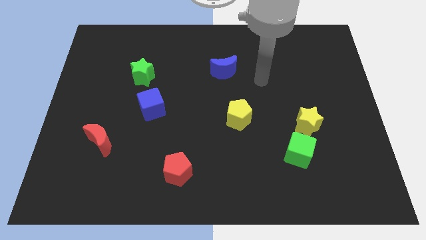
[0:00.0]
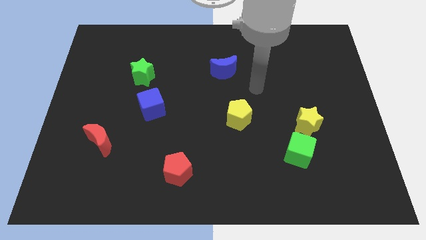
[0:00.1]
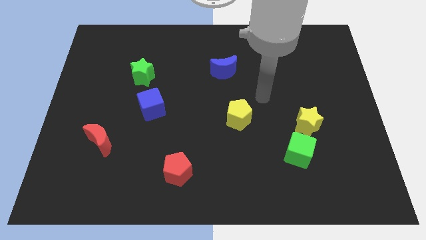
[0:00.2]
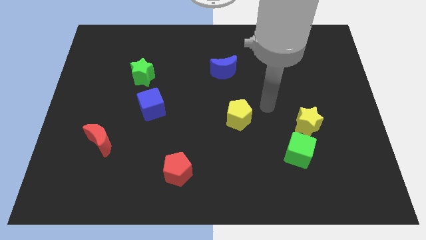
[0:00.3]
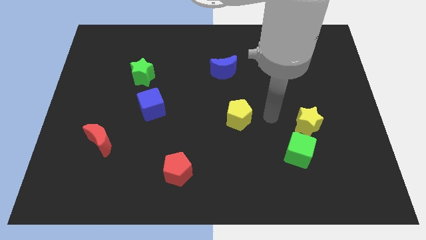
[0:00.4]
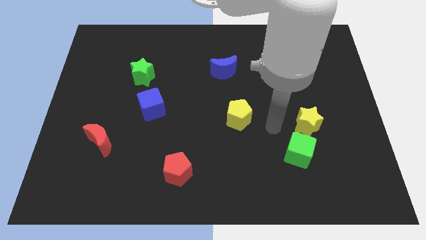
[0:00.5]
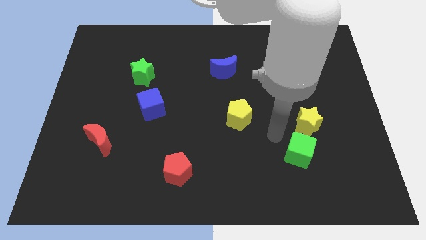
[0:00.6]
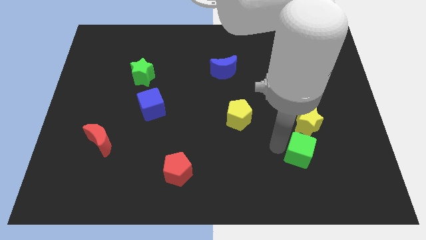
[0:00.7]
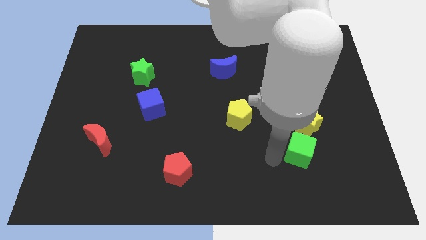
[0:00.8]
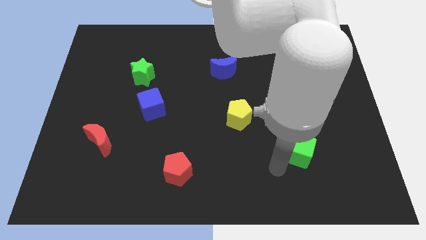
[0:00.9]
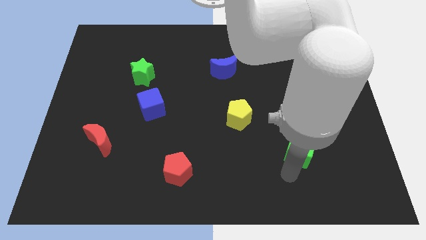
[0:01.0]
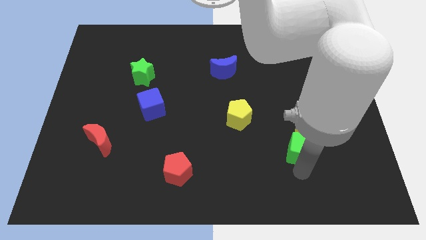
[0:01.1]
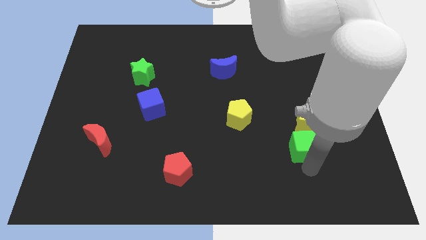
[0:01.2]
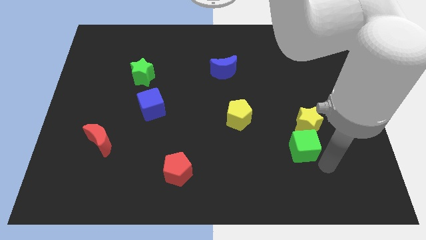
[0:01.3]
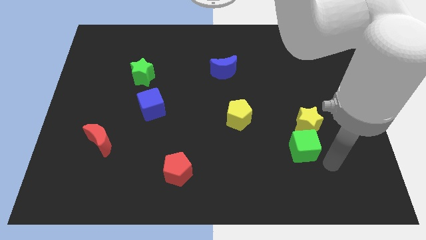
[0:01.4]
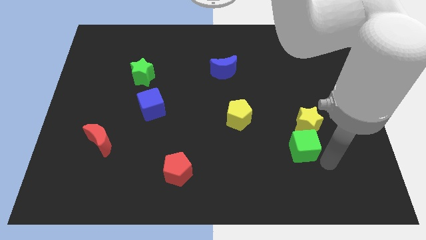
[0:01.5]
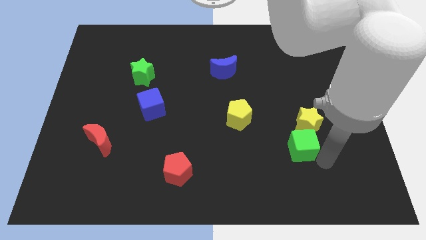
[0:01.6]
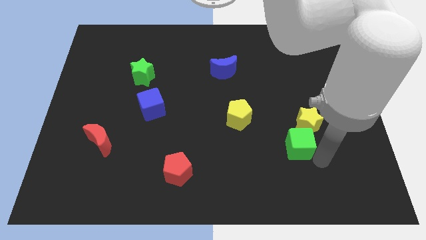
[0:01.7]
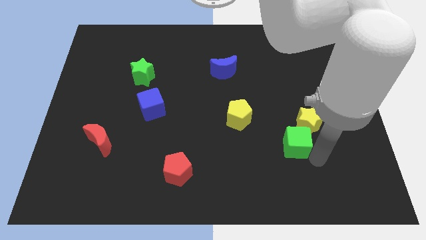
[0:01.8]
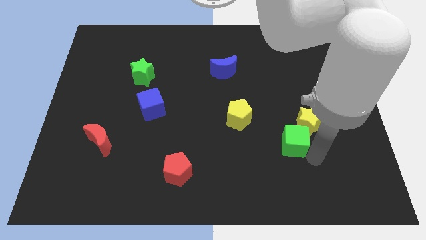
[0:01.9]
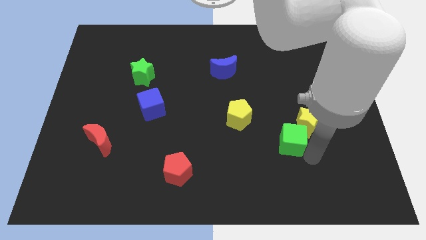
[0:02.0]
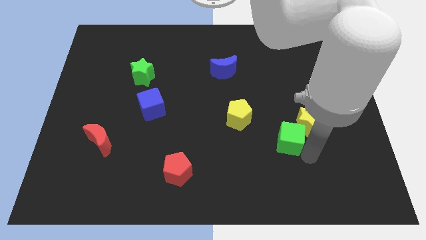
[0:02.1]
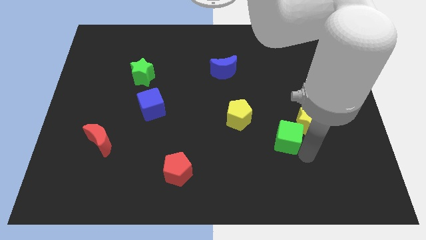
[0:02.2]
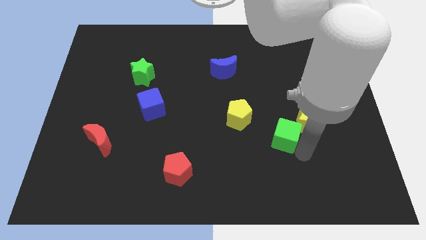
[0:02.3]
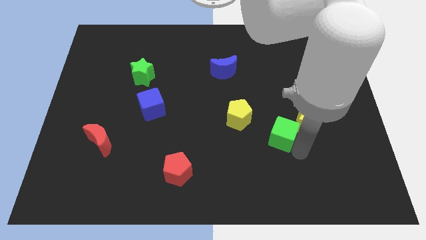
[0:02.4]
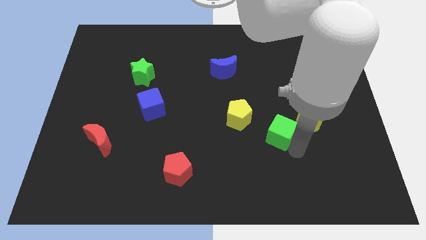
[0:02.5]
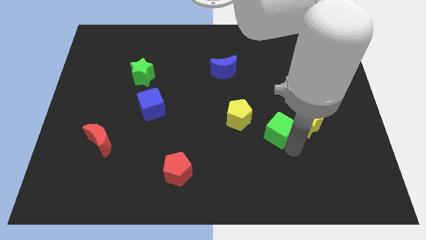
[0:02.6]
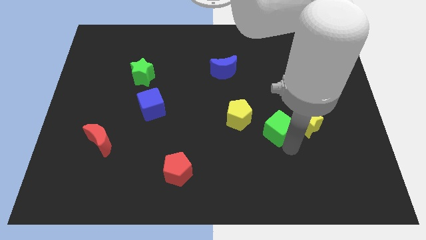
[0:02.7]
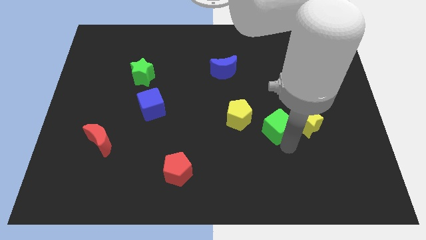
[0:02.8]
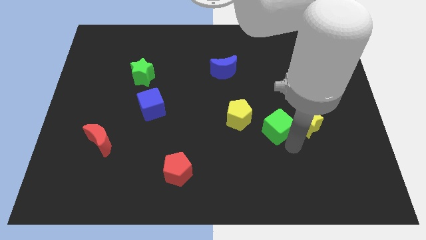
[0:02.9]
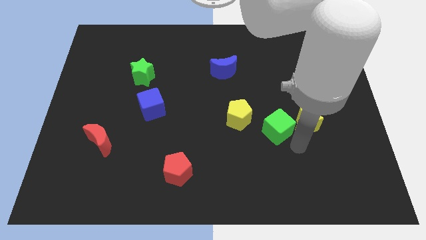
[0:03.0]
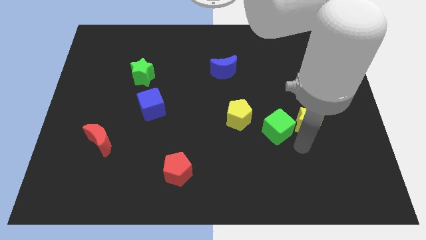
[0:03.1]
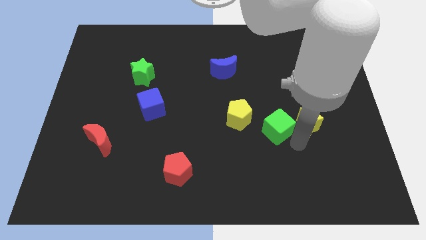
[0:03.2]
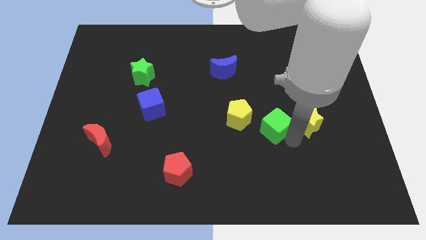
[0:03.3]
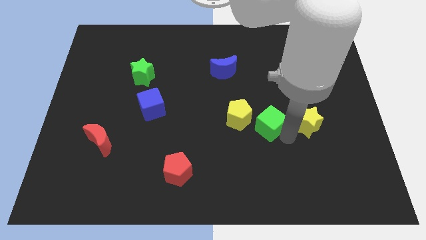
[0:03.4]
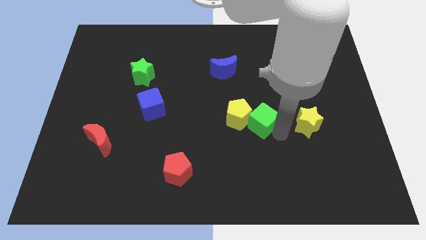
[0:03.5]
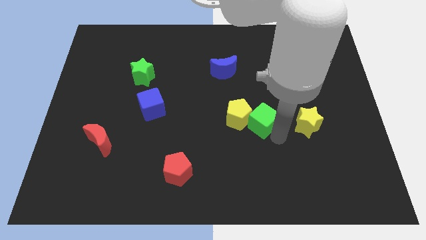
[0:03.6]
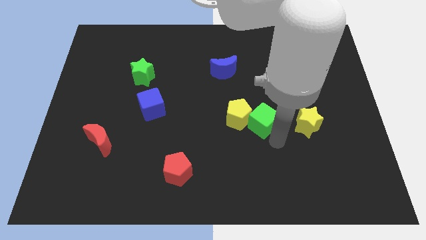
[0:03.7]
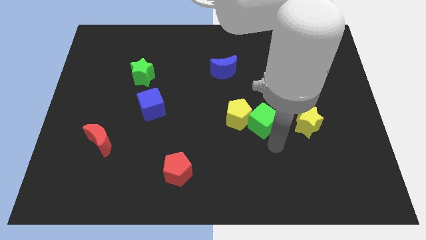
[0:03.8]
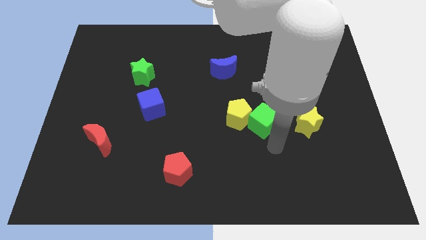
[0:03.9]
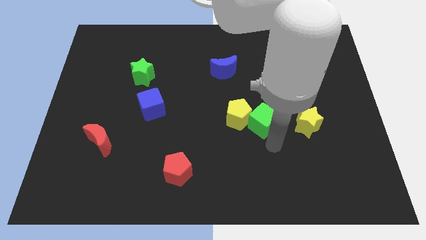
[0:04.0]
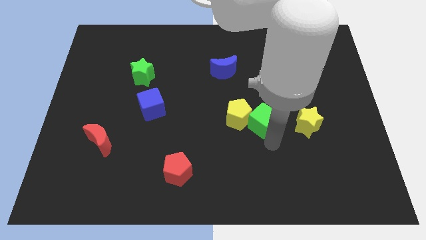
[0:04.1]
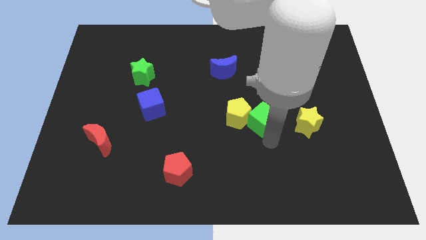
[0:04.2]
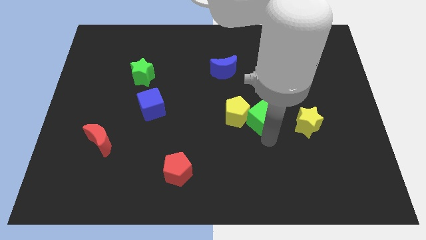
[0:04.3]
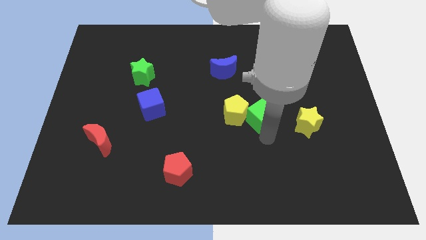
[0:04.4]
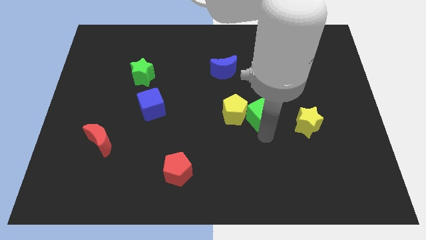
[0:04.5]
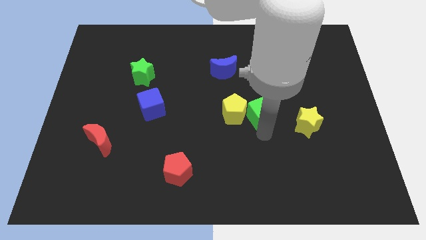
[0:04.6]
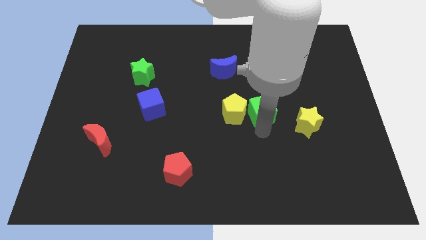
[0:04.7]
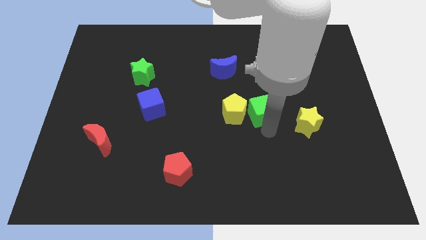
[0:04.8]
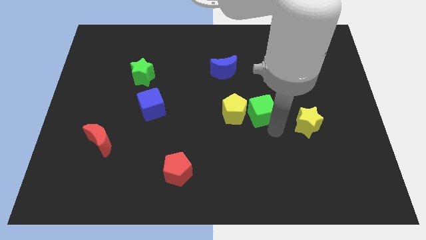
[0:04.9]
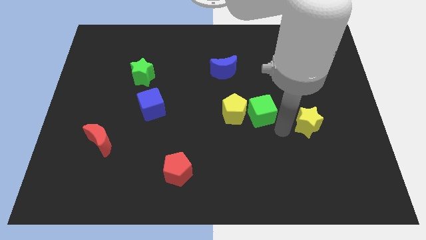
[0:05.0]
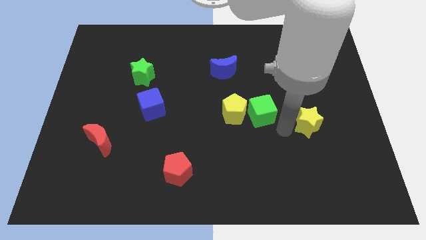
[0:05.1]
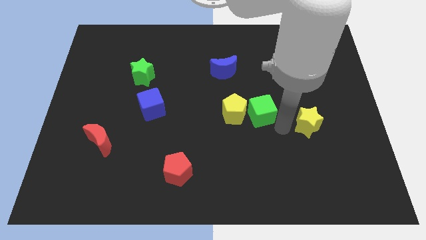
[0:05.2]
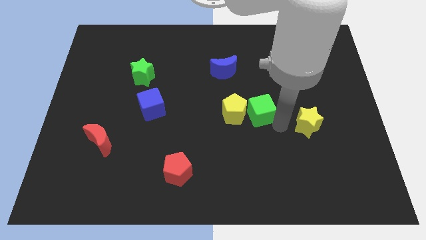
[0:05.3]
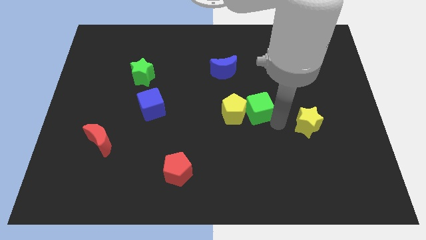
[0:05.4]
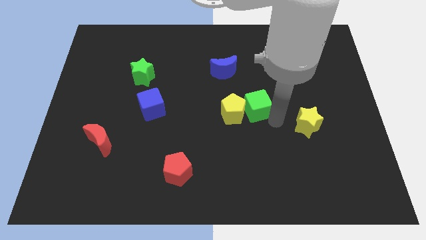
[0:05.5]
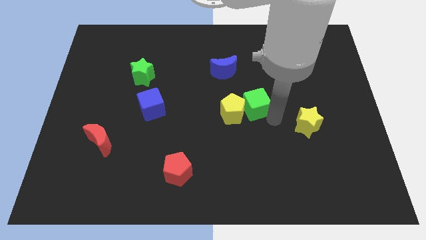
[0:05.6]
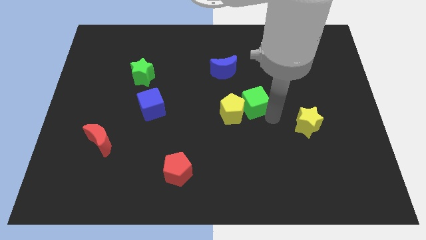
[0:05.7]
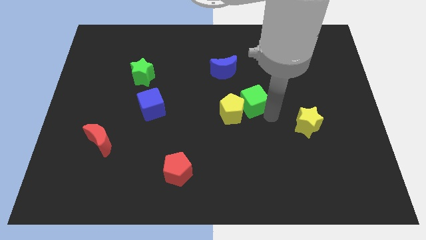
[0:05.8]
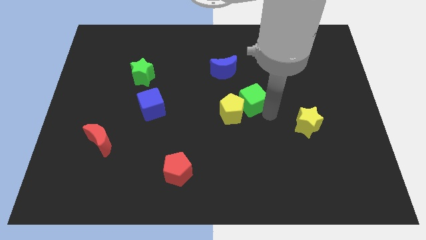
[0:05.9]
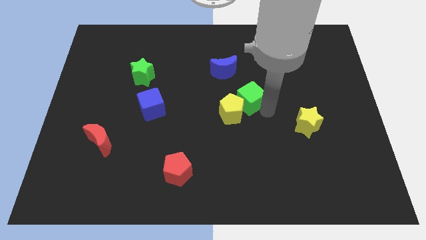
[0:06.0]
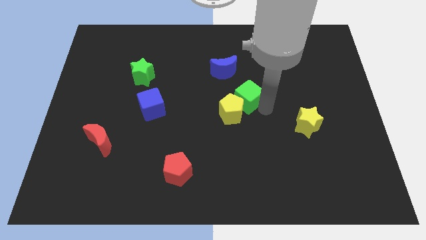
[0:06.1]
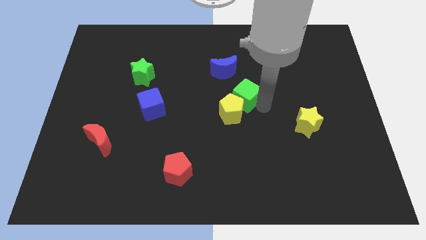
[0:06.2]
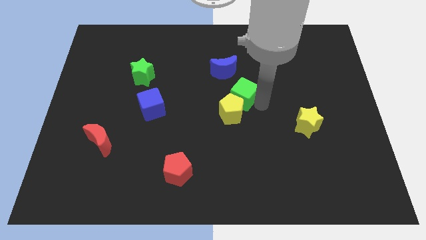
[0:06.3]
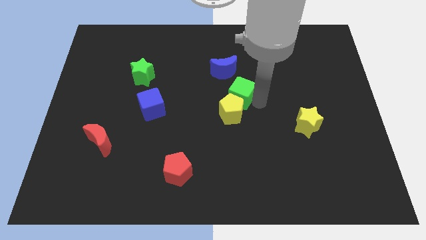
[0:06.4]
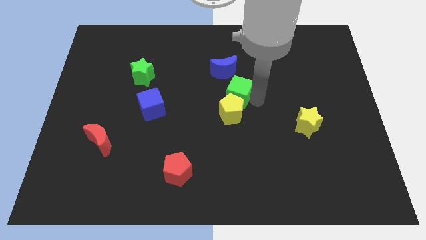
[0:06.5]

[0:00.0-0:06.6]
slide the green cube upwards and to the left

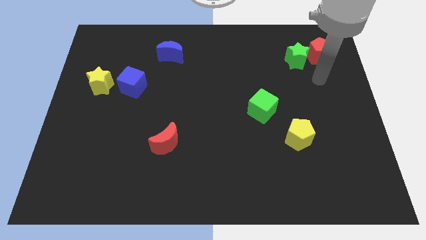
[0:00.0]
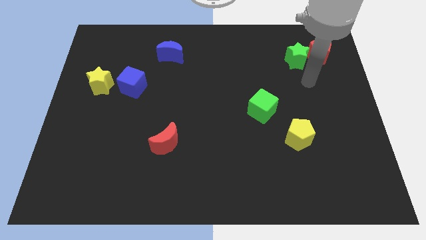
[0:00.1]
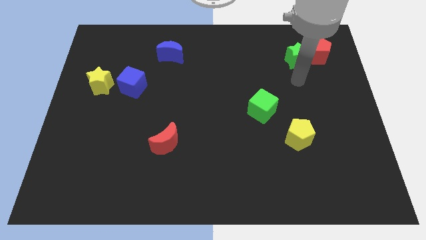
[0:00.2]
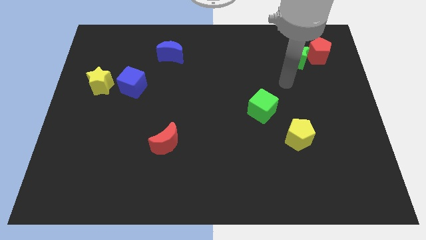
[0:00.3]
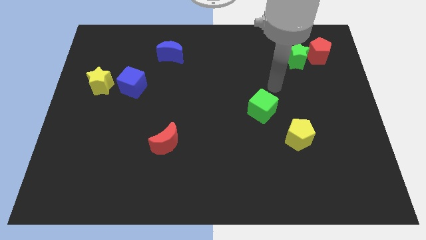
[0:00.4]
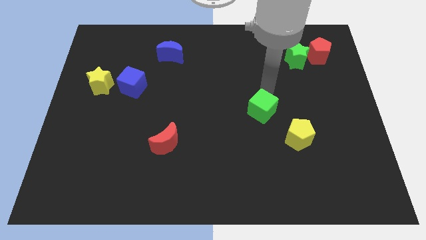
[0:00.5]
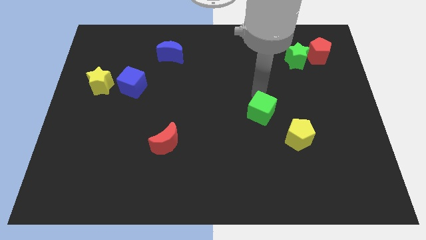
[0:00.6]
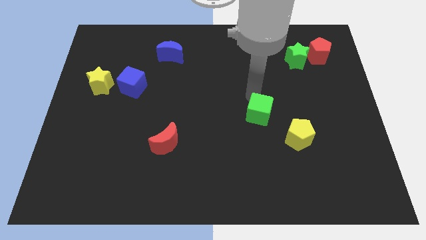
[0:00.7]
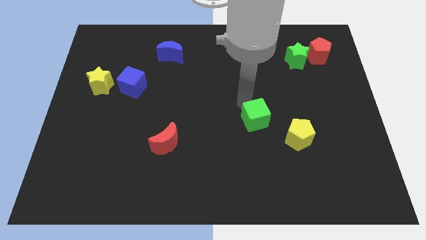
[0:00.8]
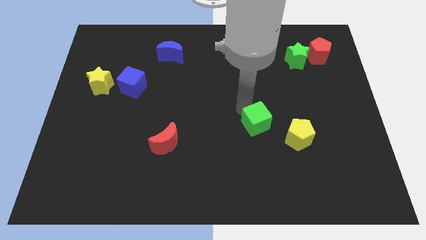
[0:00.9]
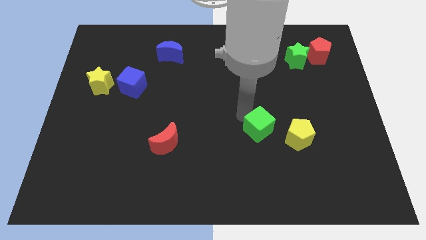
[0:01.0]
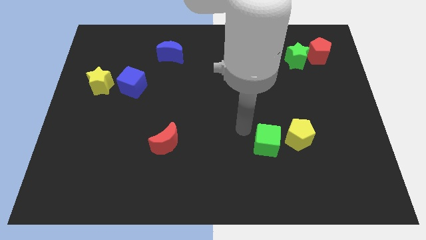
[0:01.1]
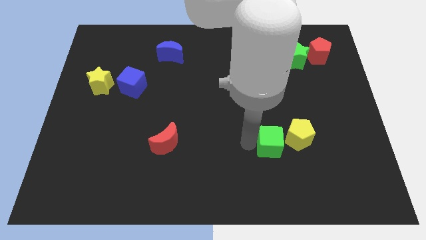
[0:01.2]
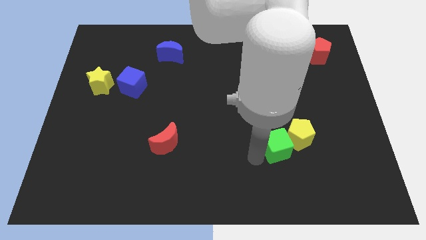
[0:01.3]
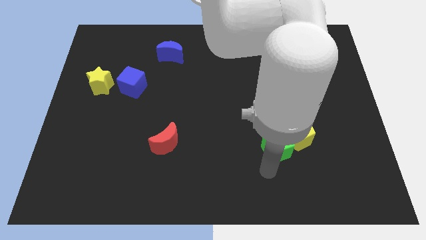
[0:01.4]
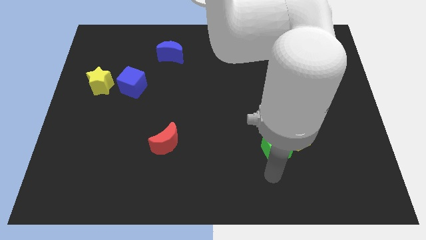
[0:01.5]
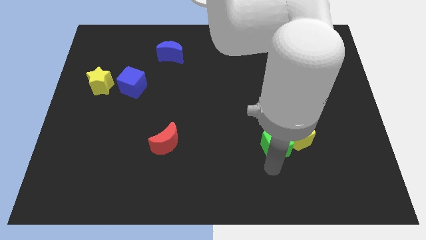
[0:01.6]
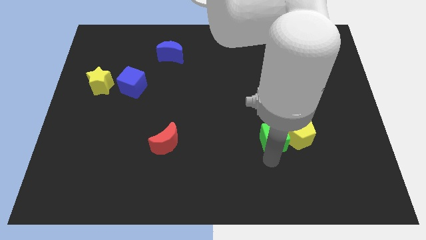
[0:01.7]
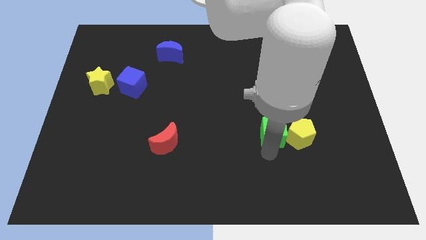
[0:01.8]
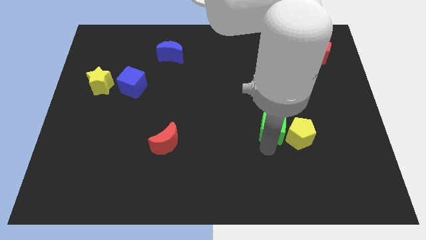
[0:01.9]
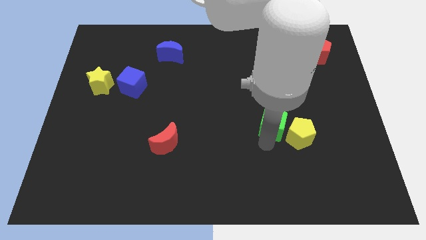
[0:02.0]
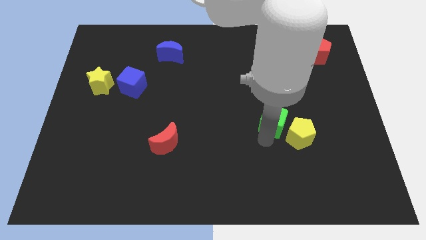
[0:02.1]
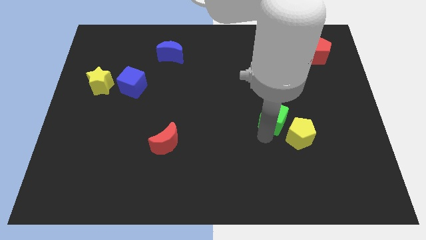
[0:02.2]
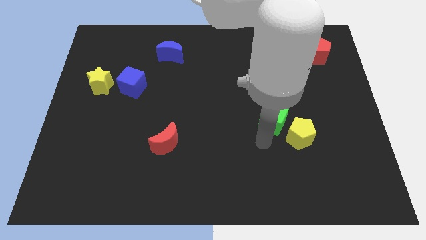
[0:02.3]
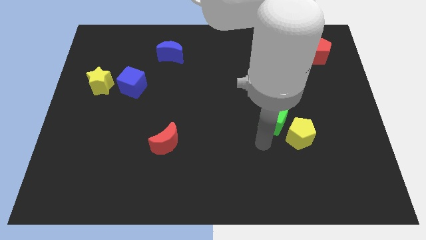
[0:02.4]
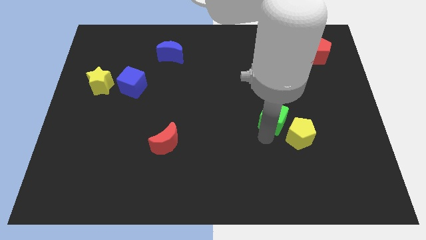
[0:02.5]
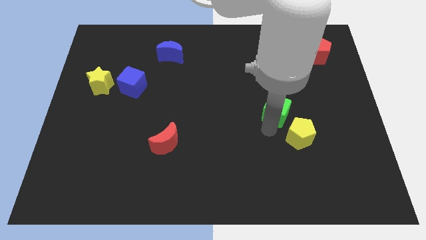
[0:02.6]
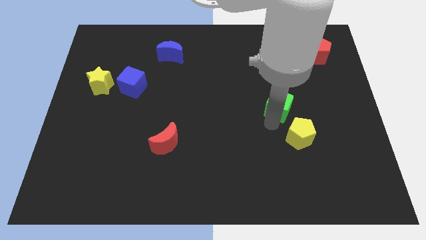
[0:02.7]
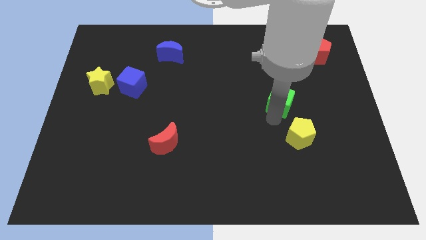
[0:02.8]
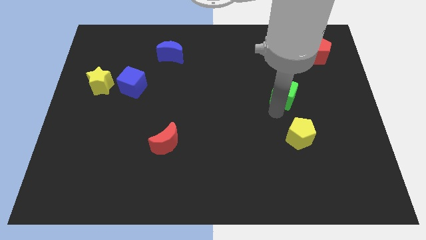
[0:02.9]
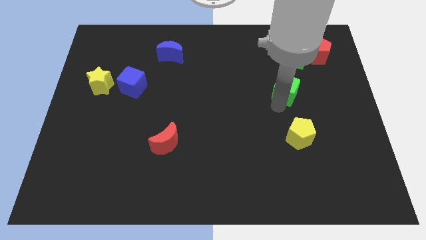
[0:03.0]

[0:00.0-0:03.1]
slightly slide the green cube up and to the right
